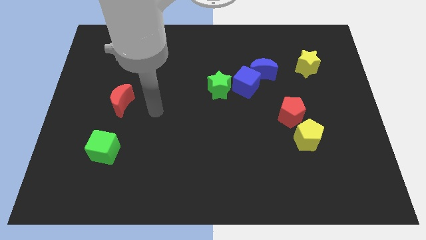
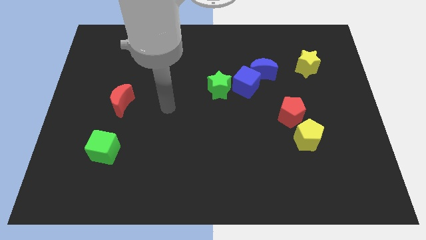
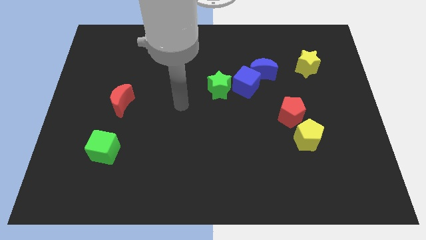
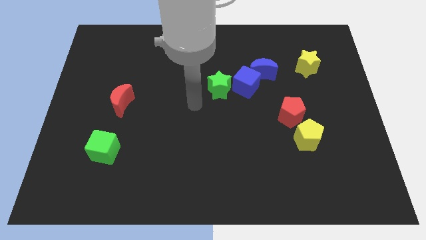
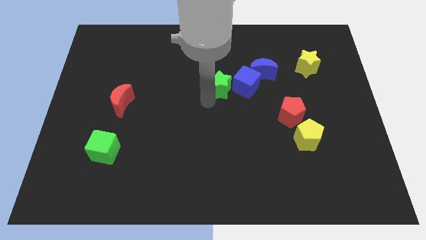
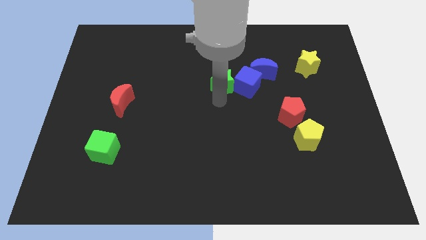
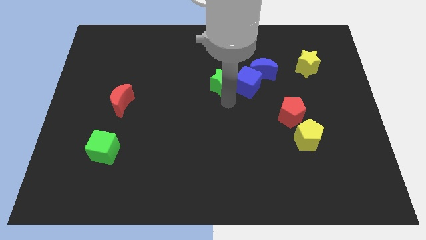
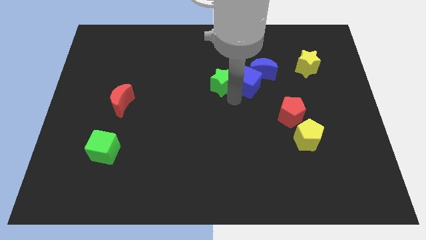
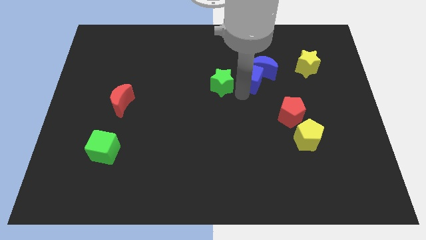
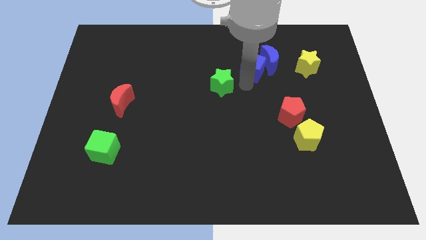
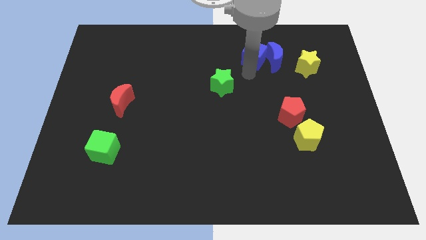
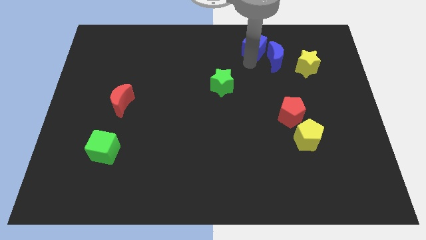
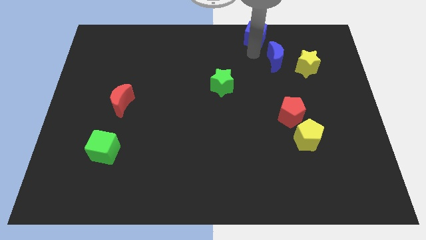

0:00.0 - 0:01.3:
pull the blue moon apart from the blue cube

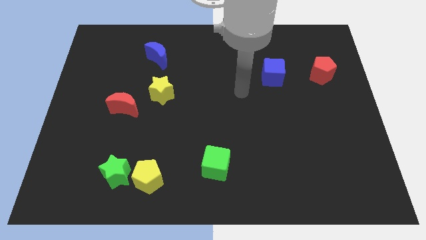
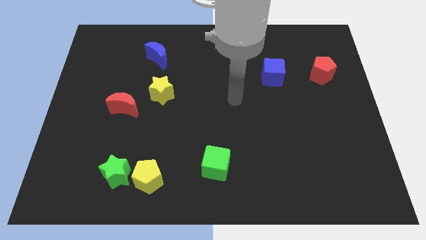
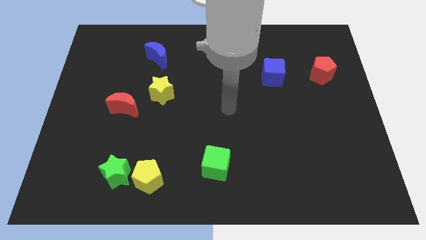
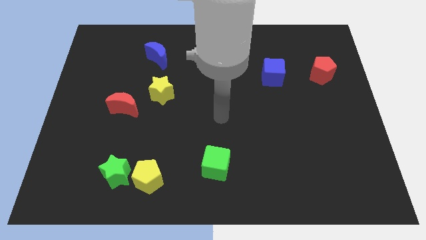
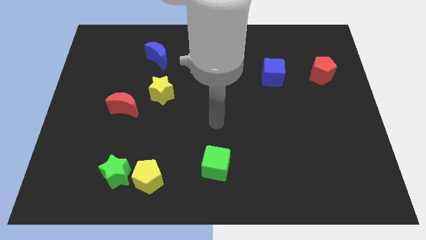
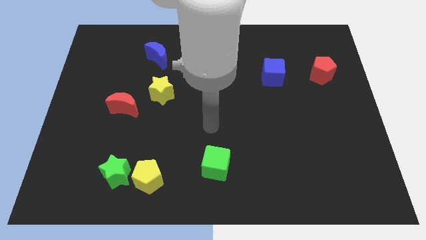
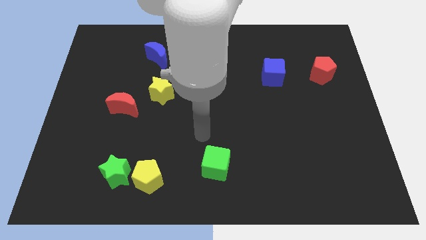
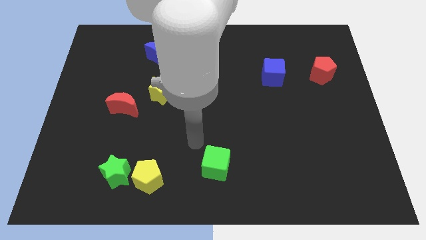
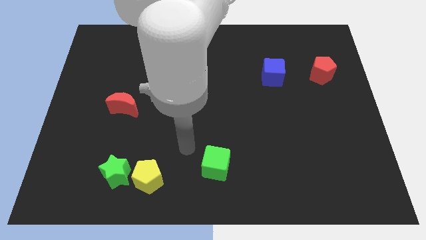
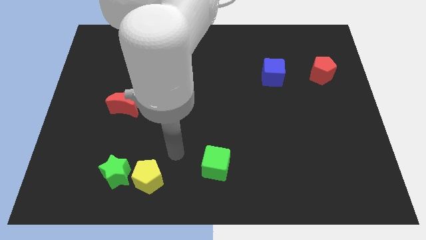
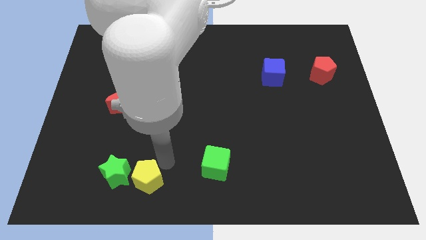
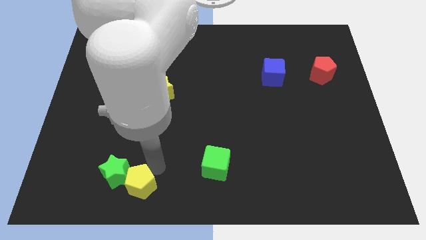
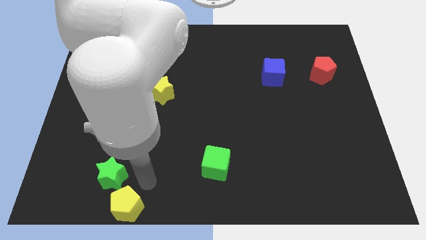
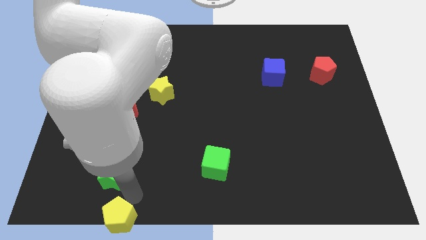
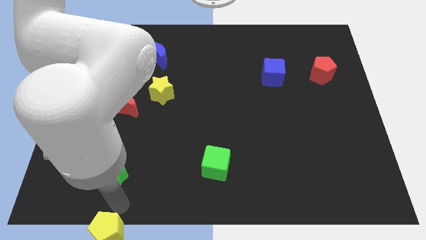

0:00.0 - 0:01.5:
separate the green star from the yellow pentagon

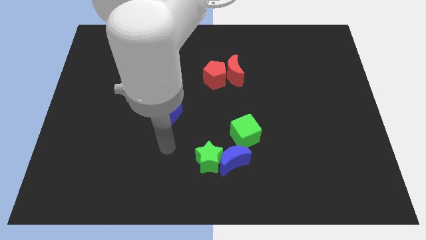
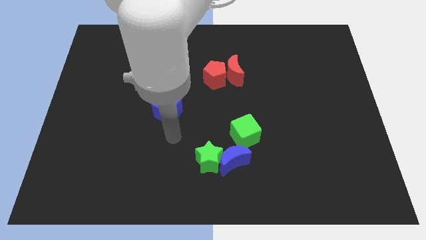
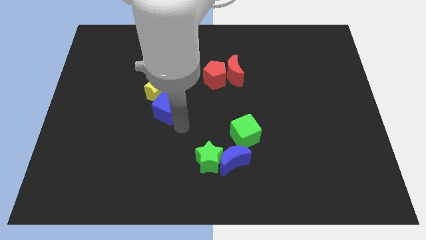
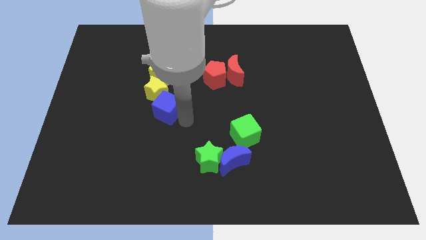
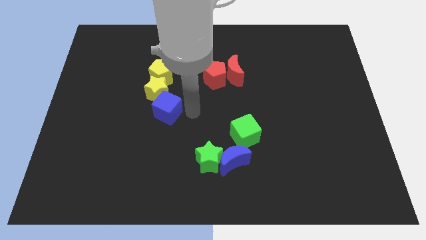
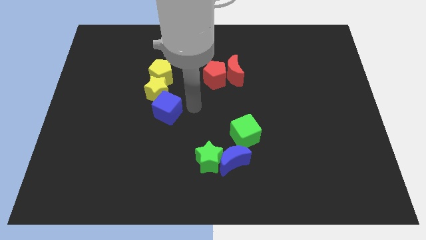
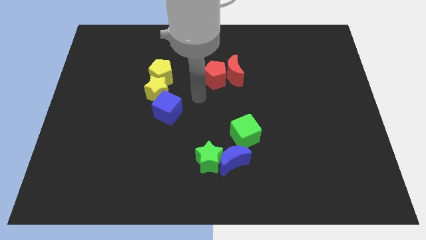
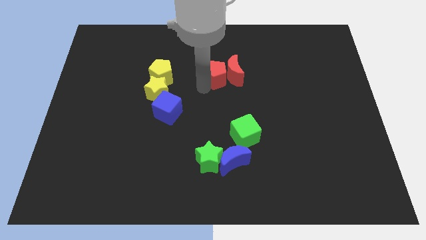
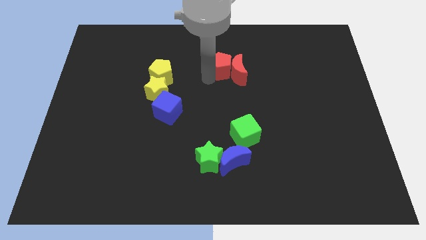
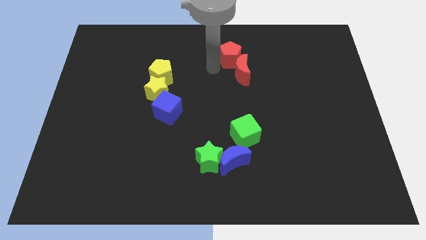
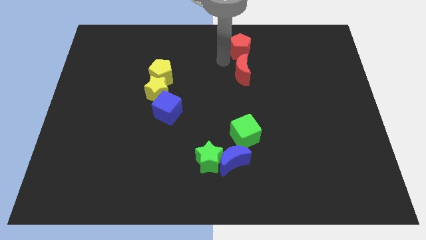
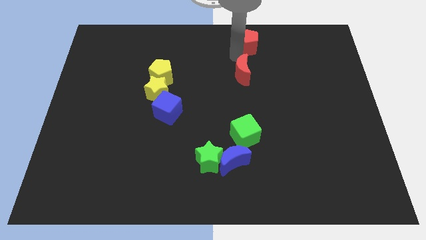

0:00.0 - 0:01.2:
separate the red moon from the red pentagon

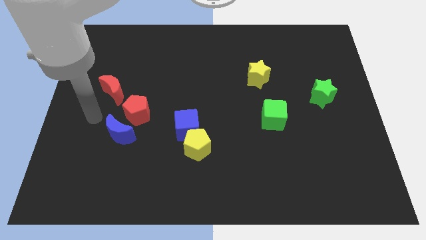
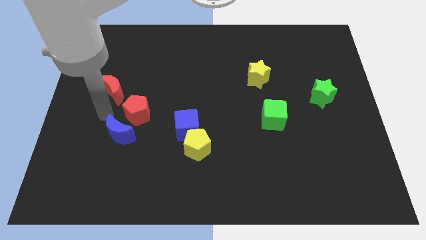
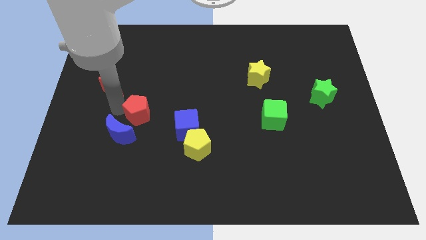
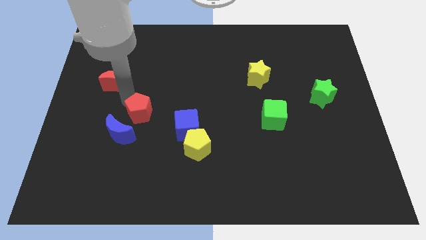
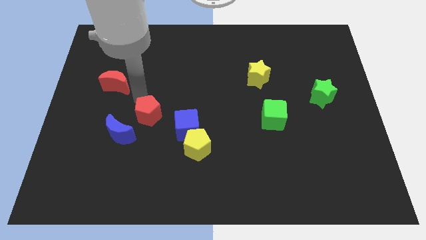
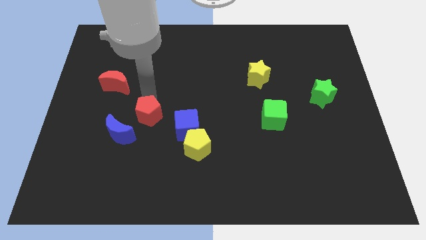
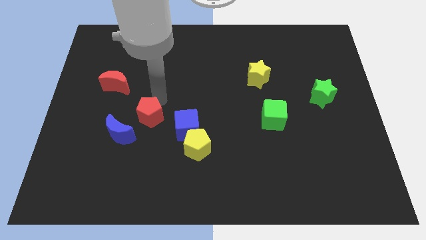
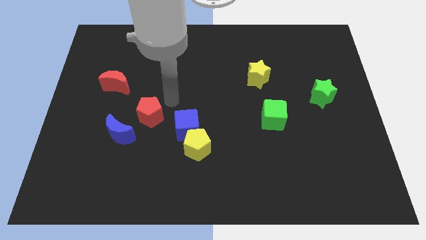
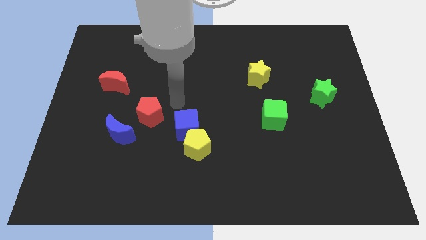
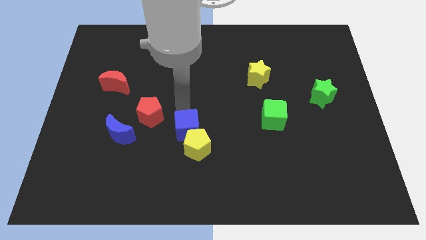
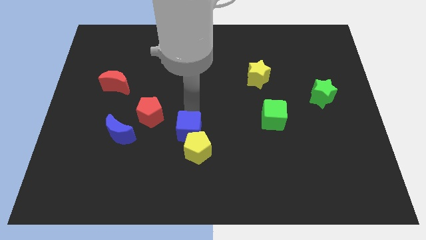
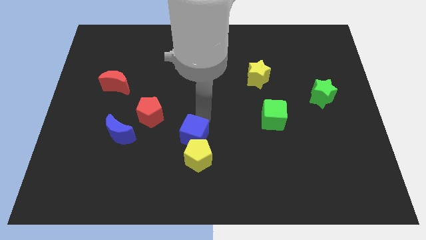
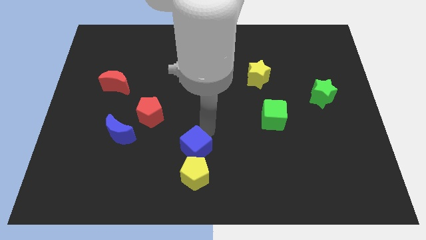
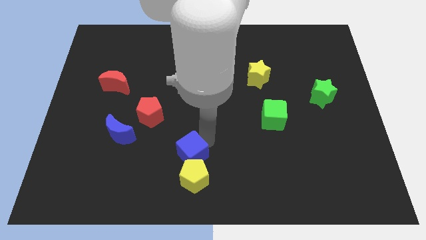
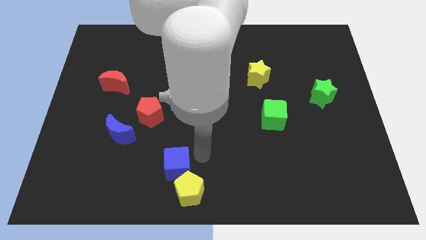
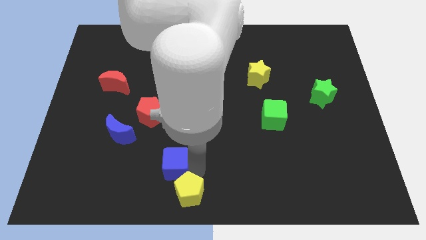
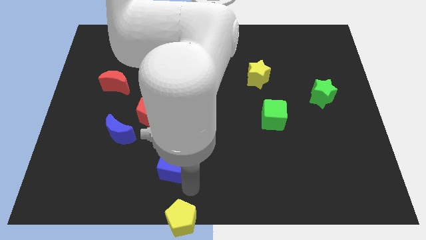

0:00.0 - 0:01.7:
pull the blue cube apart from the yellow pentagon

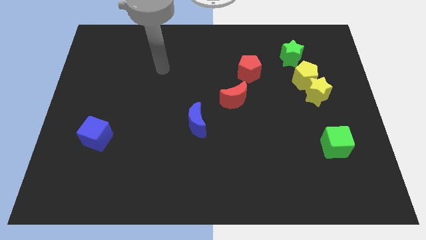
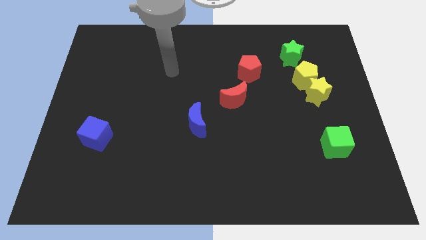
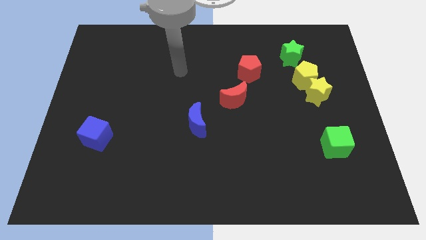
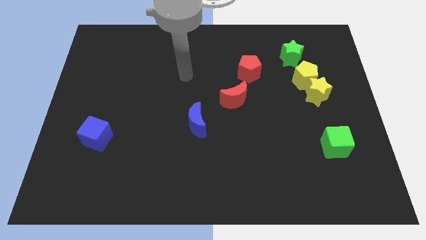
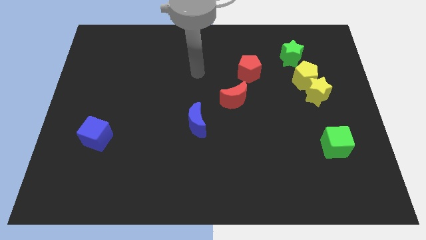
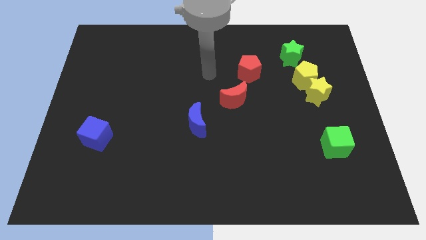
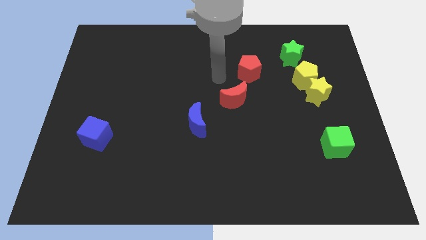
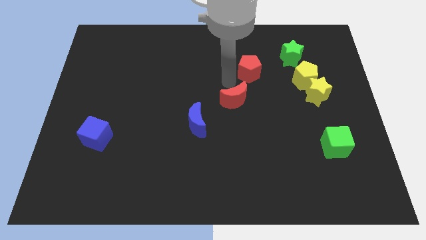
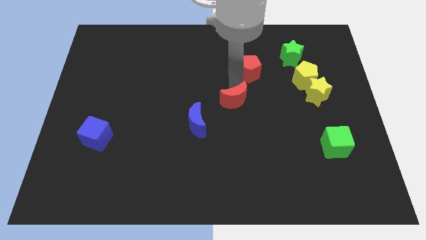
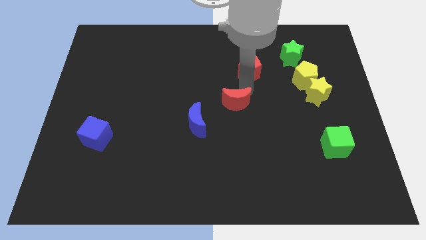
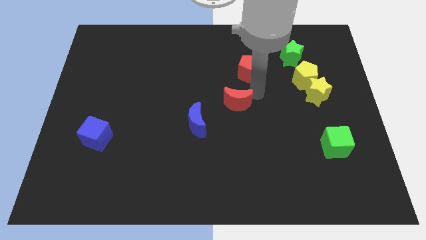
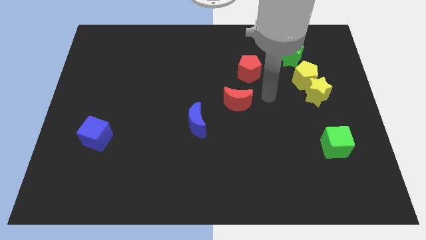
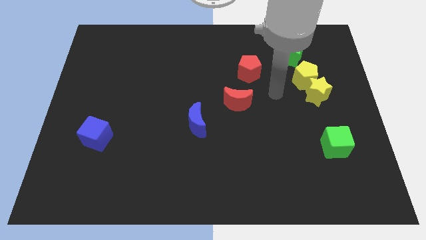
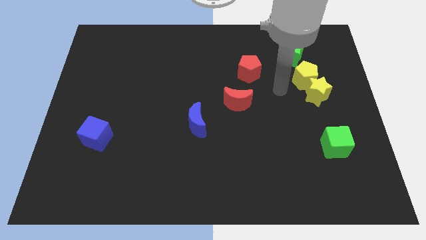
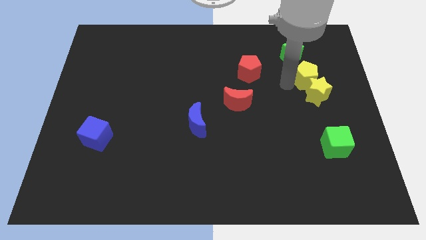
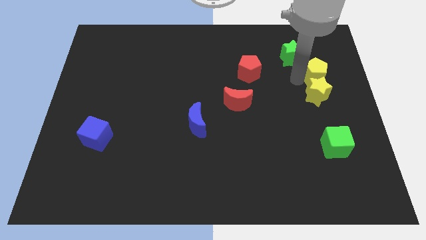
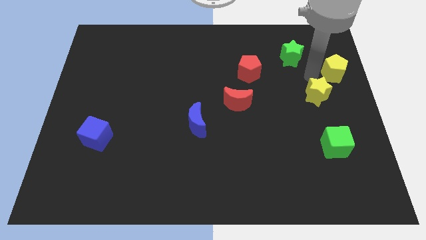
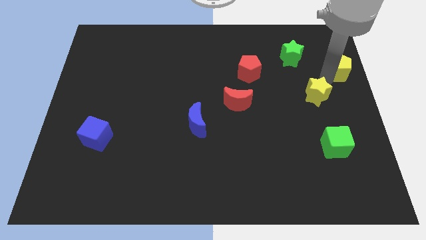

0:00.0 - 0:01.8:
move the yellow star away from the yellow pentagon

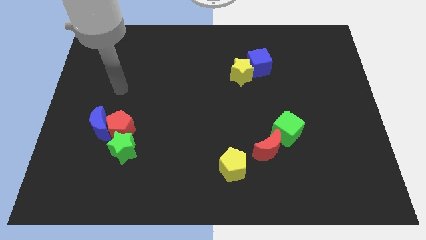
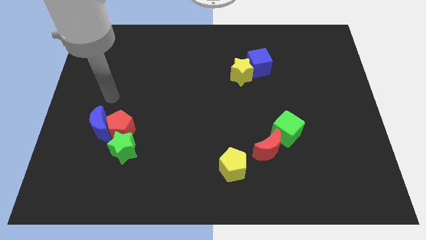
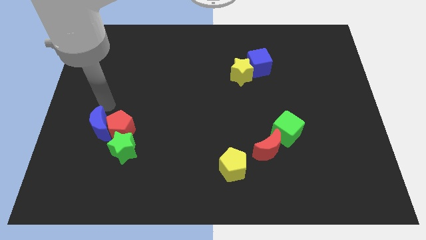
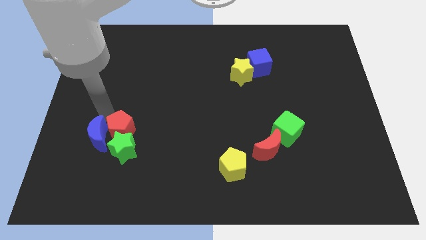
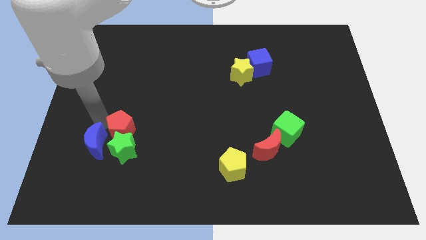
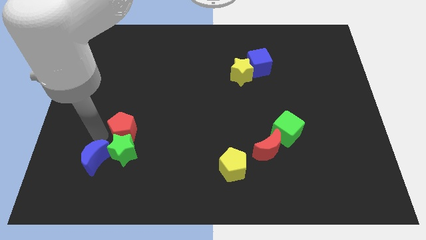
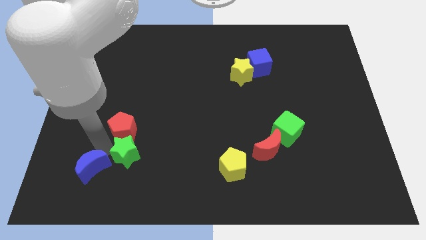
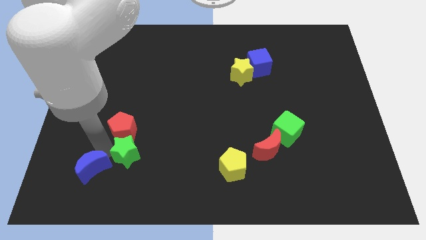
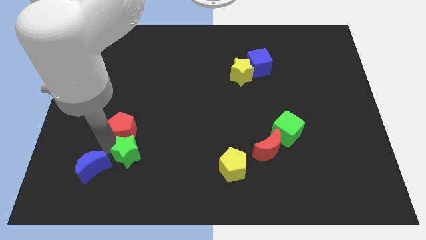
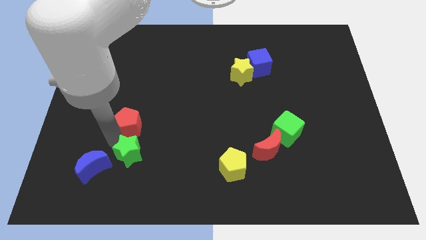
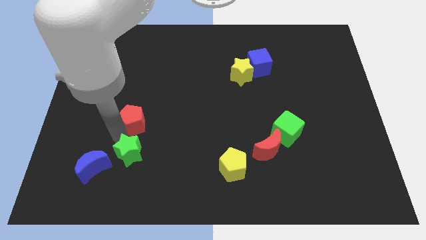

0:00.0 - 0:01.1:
pull the red pentagon apart from the blue moon and green star

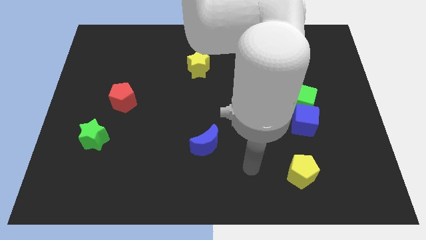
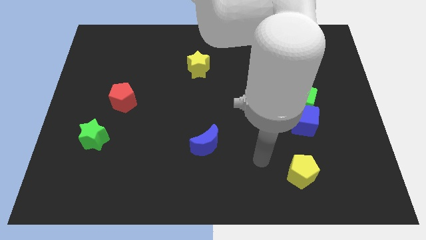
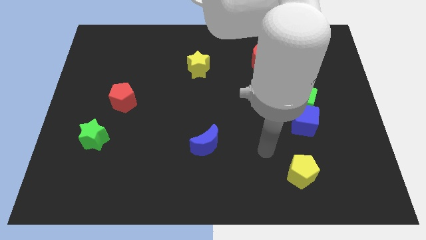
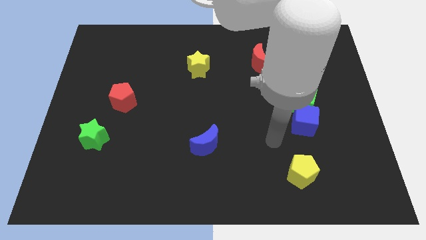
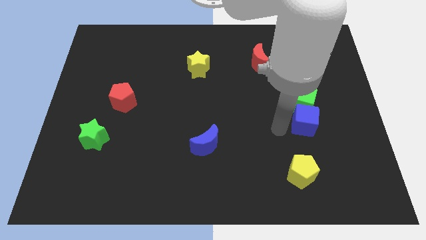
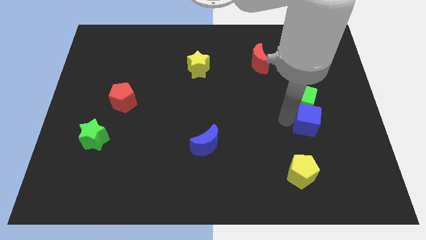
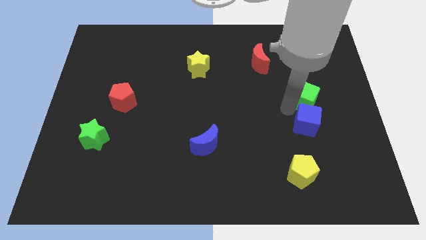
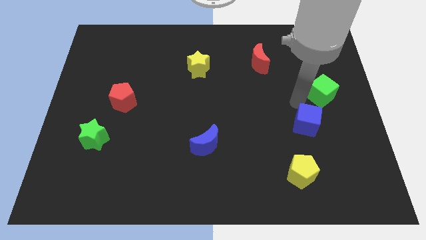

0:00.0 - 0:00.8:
separate the blue cube from the green cube
